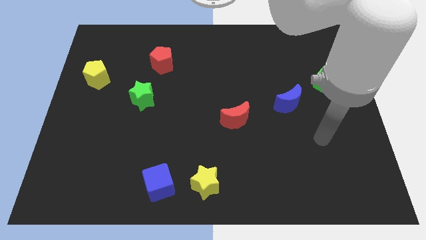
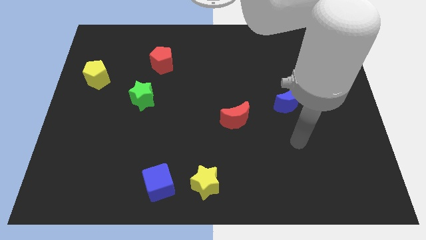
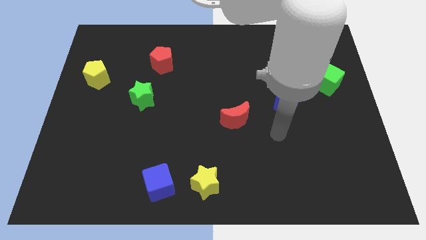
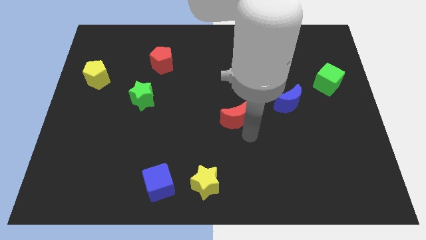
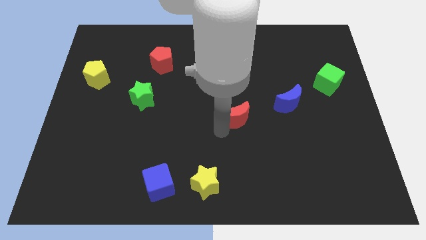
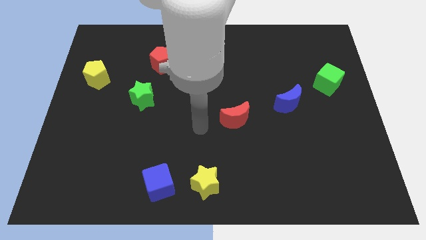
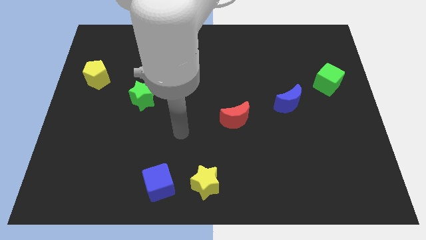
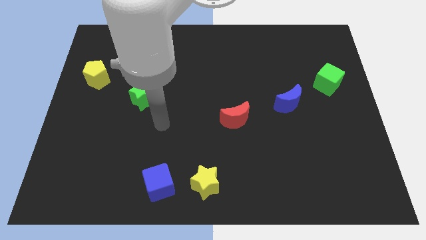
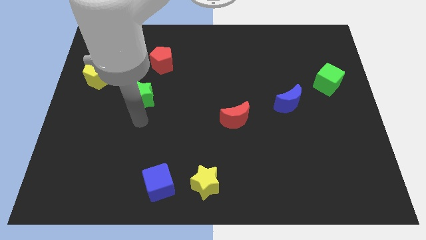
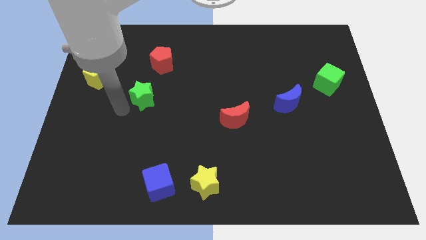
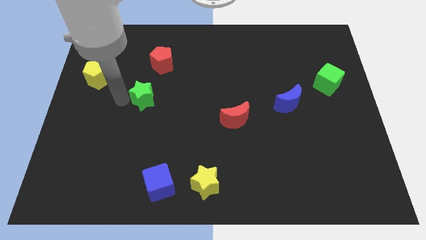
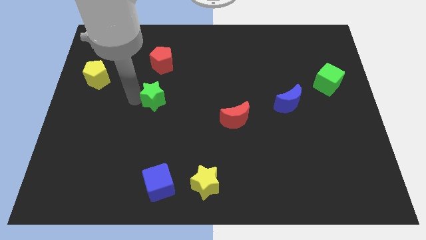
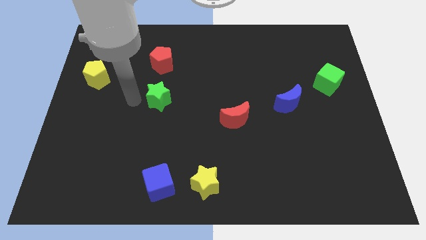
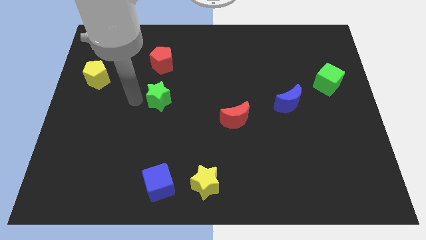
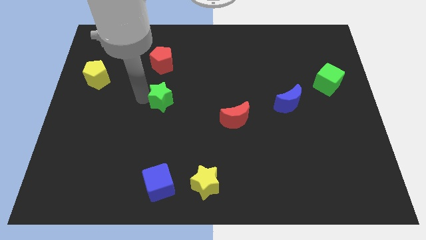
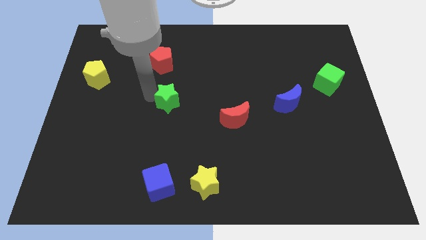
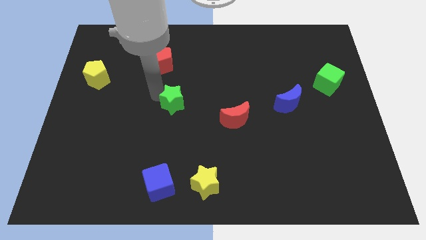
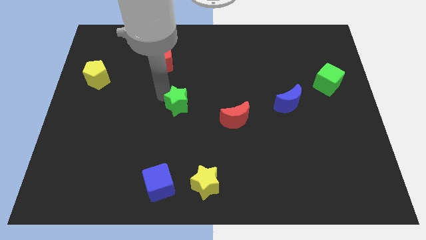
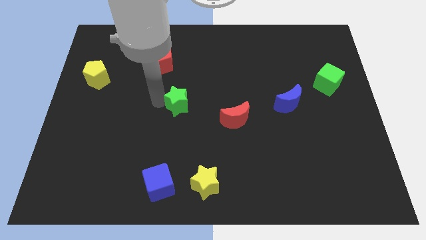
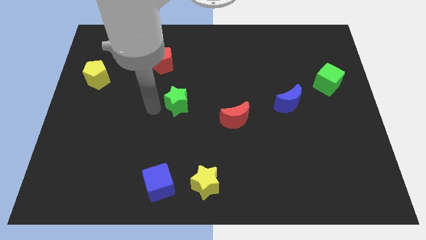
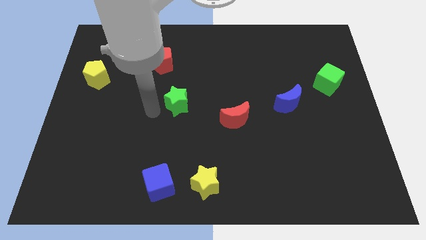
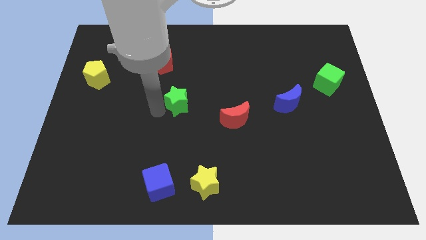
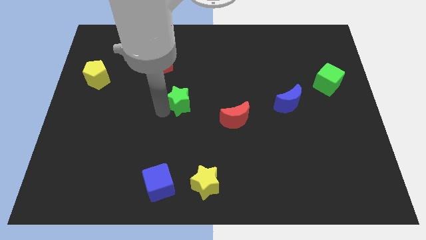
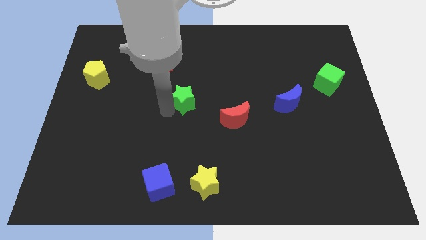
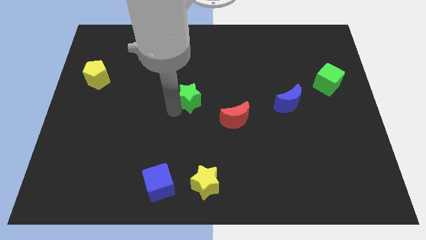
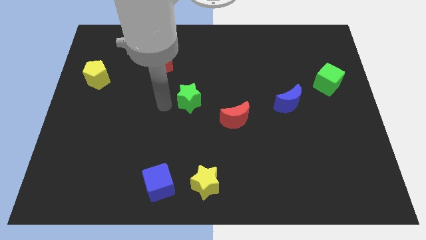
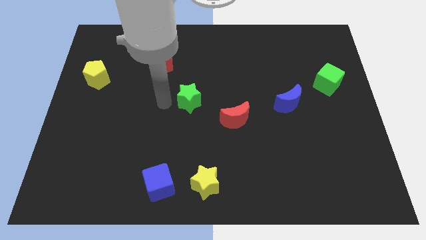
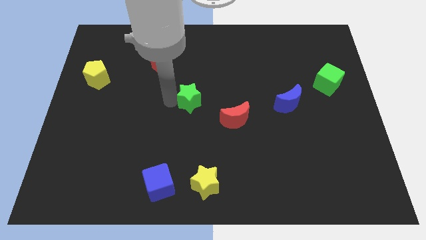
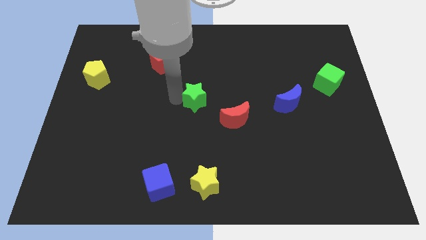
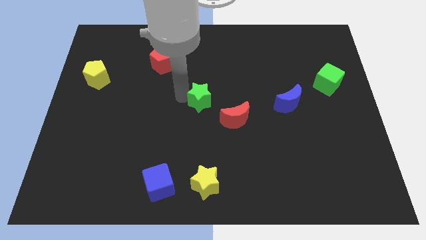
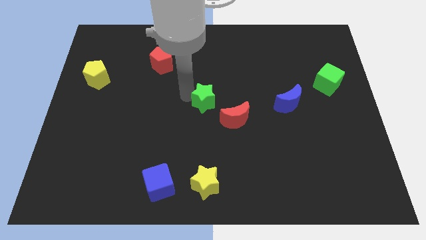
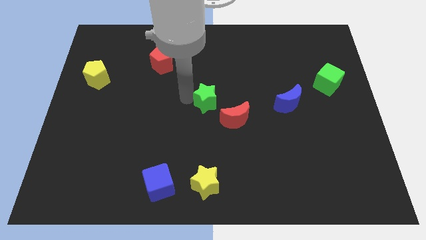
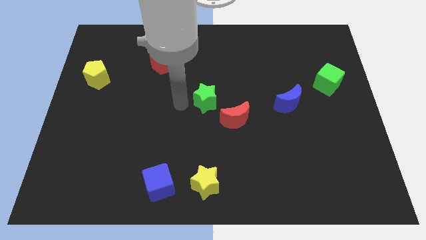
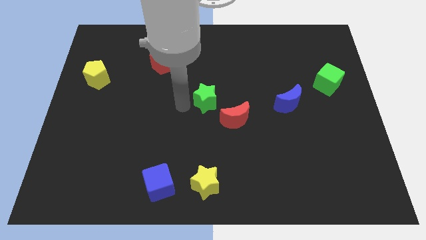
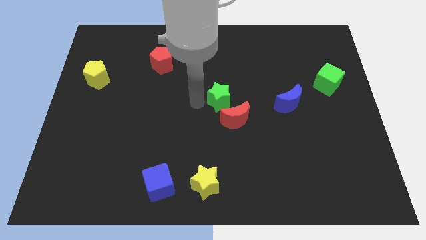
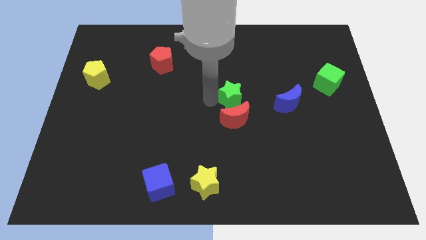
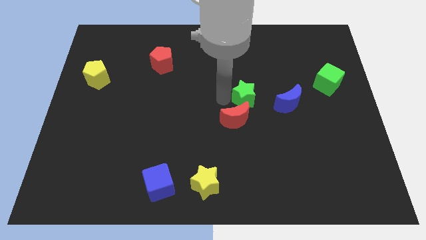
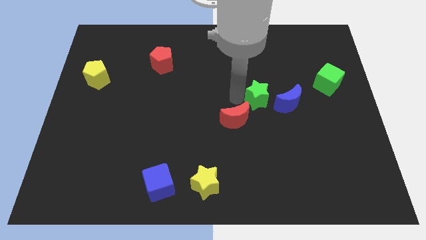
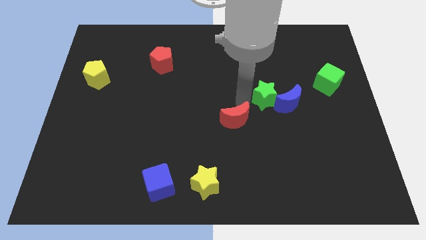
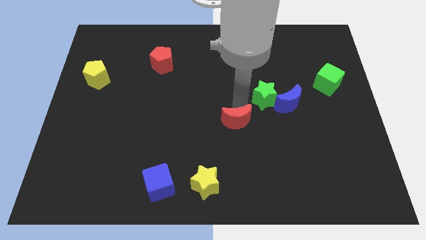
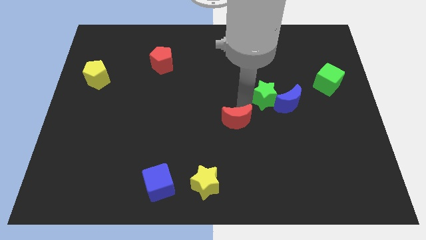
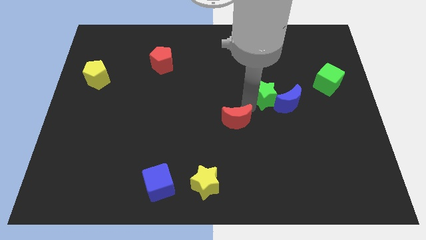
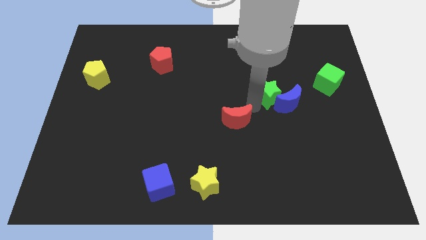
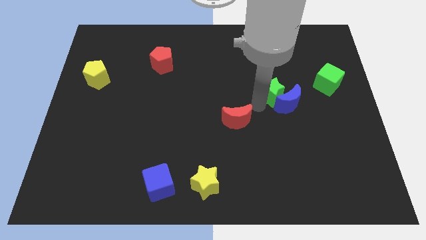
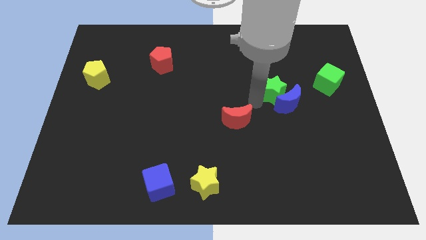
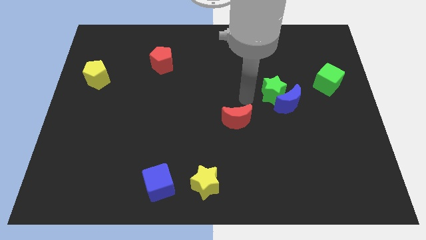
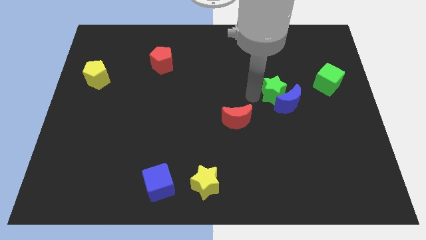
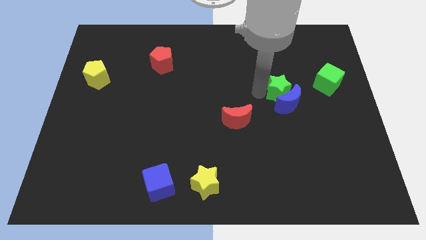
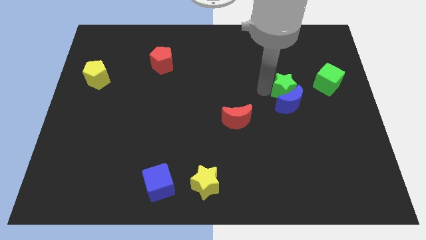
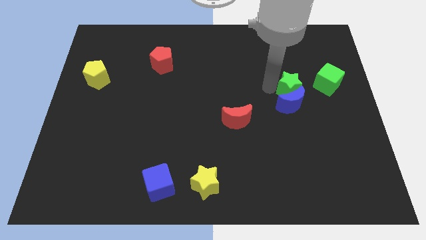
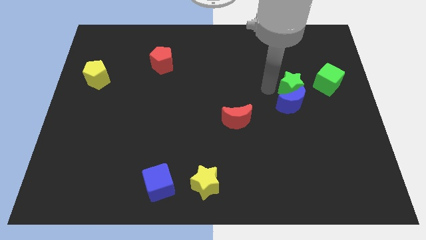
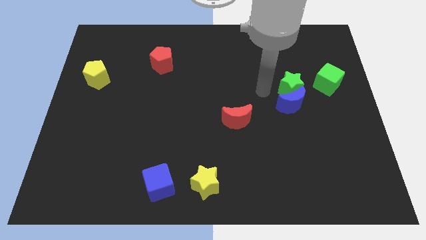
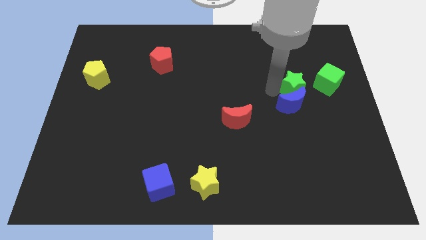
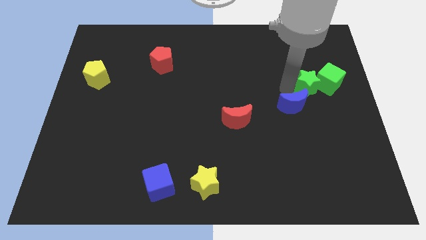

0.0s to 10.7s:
move the green star towards the green cube

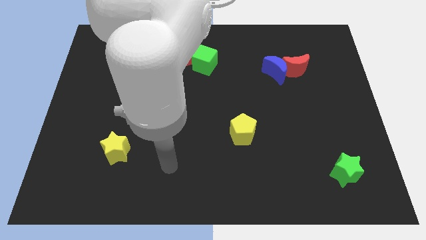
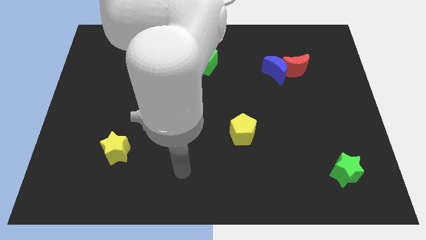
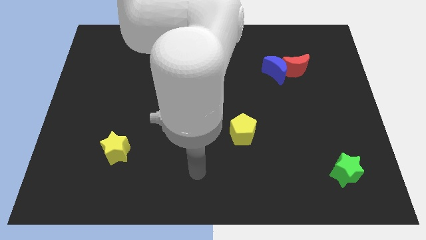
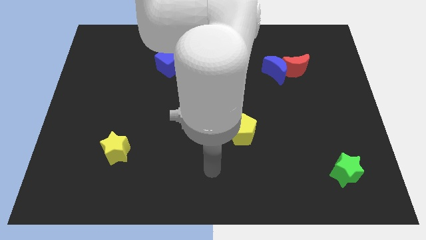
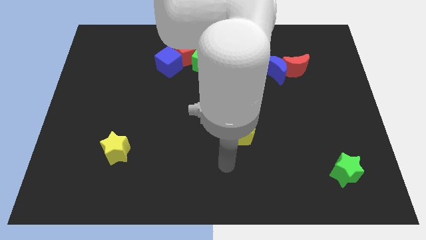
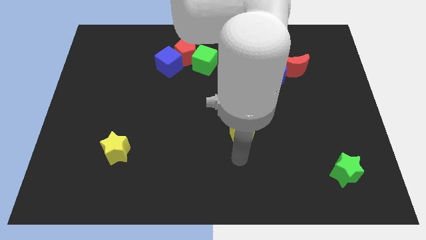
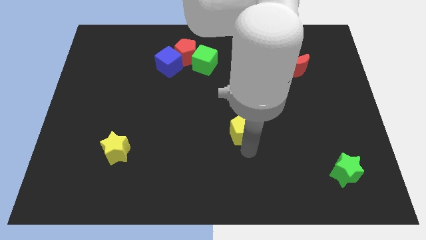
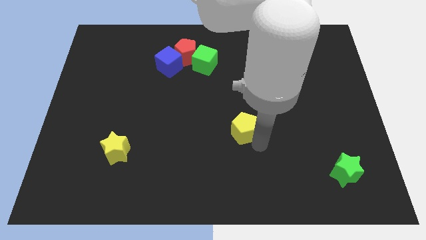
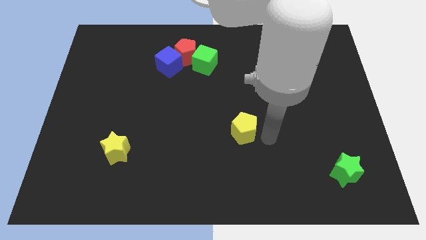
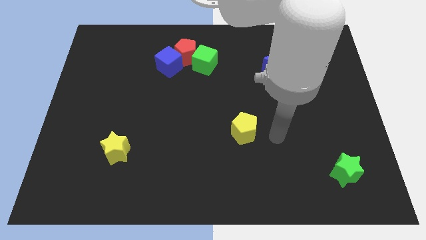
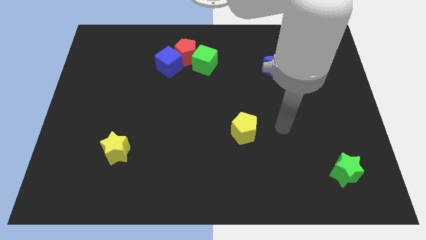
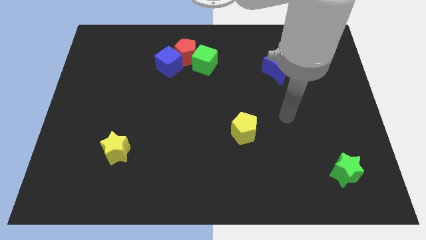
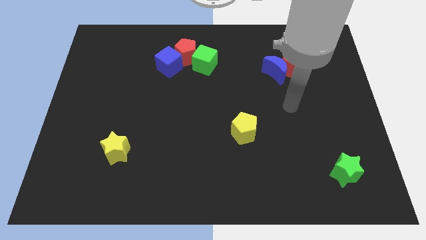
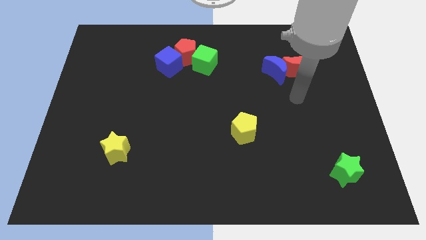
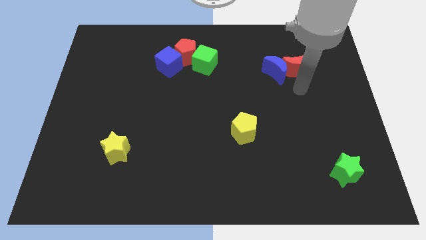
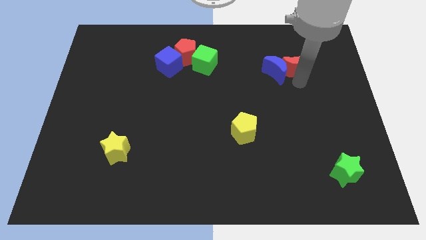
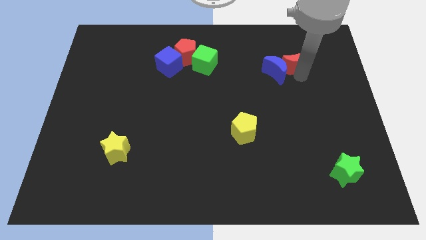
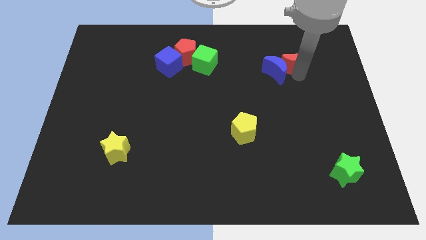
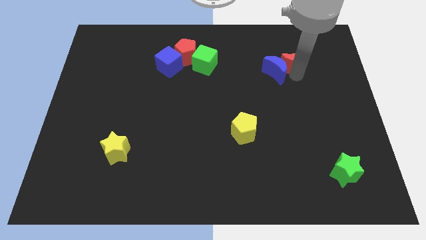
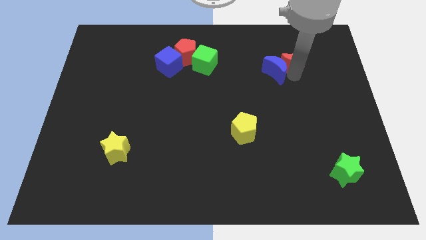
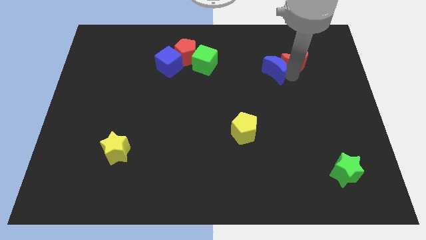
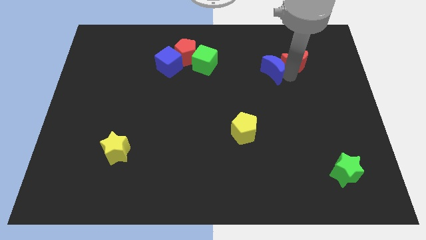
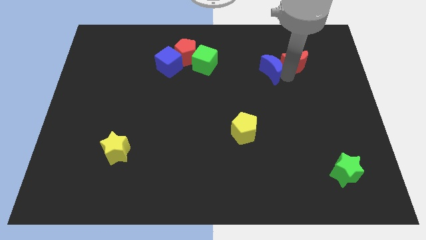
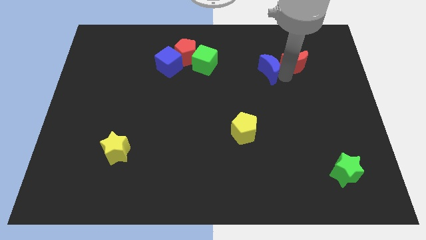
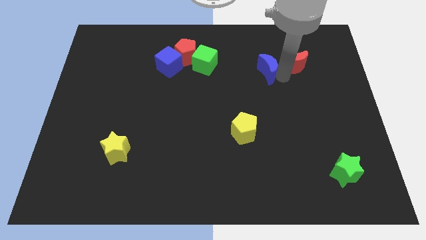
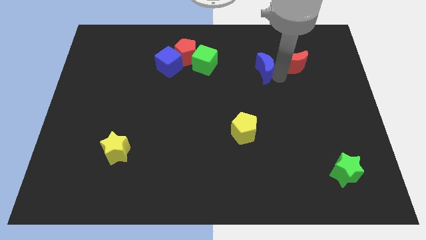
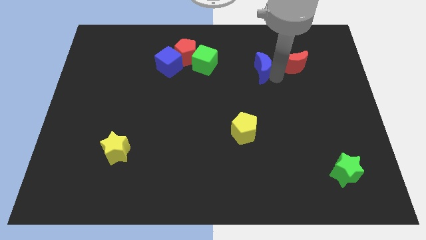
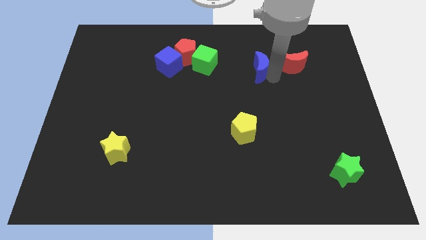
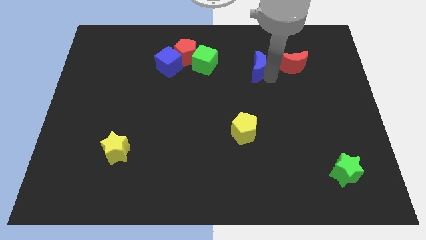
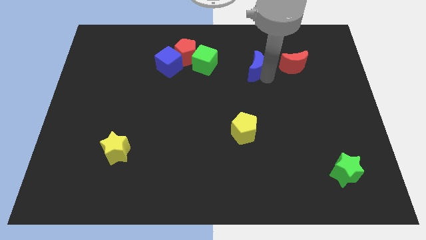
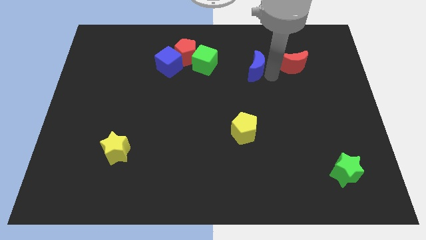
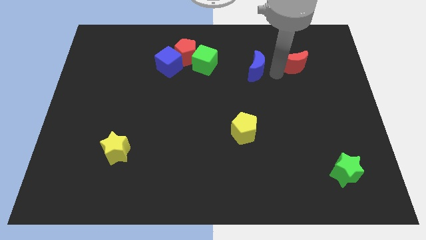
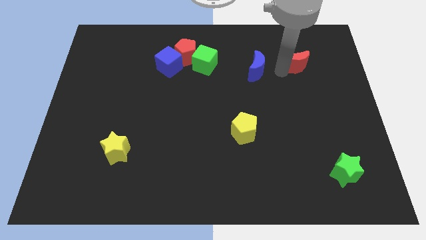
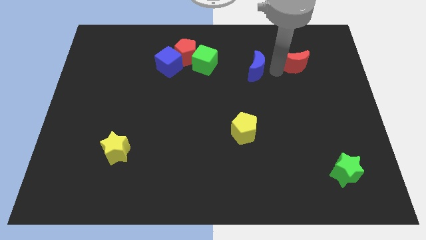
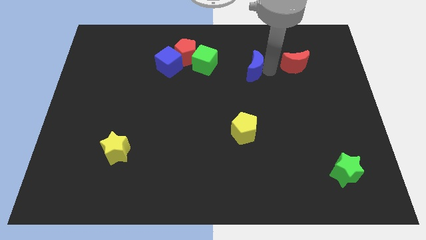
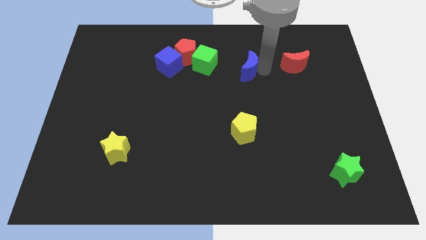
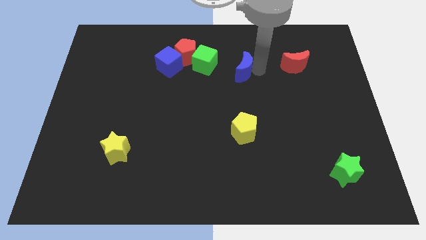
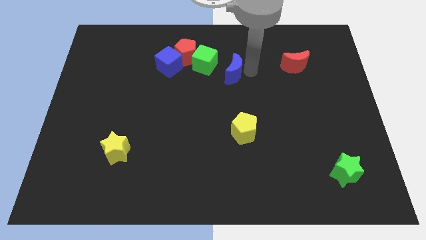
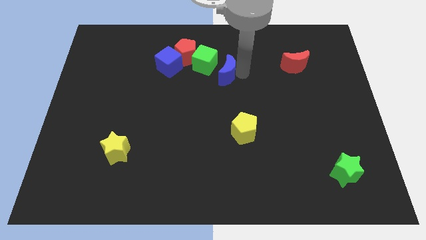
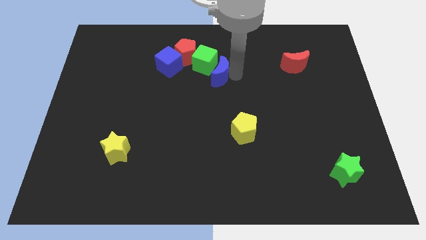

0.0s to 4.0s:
put the blue moon close to the green cube
